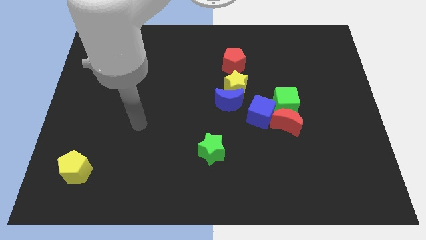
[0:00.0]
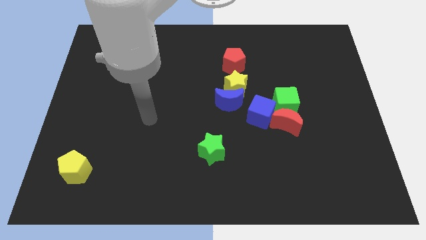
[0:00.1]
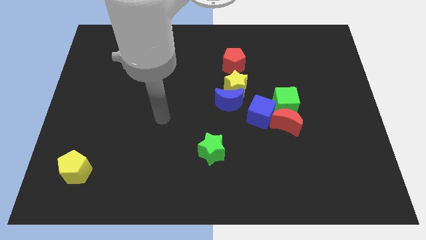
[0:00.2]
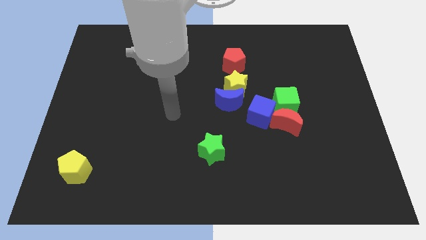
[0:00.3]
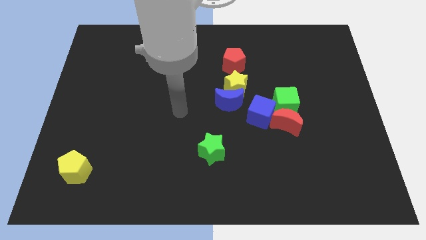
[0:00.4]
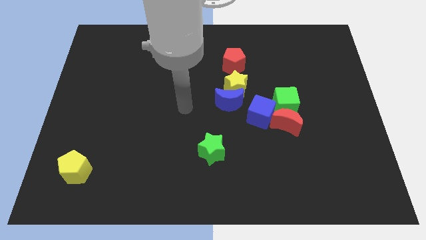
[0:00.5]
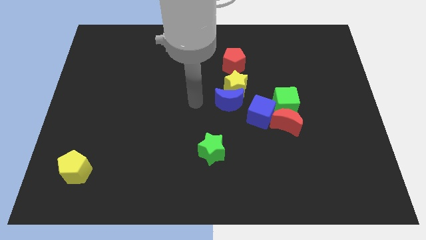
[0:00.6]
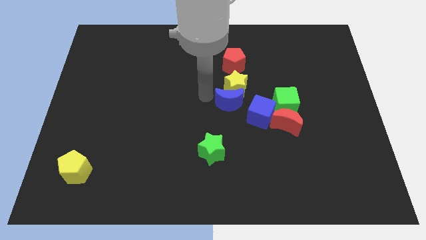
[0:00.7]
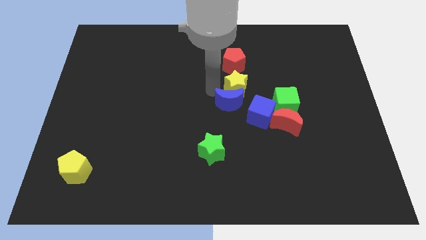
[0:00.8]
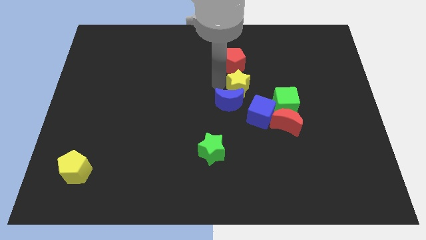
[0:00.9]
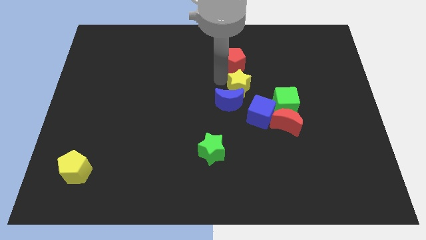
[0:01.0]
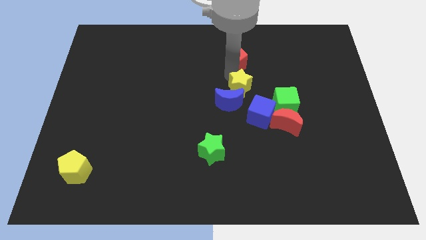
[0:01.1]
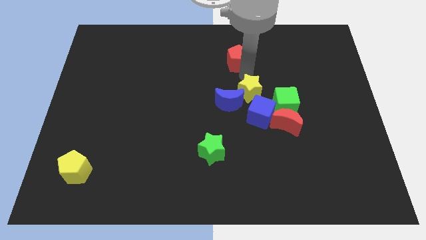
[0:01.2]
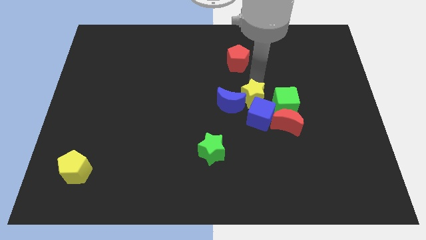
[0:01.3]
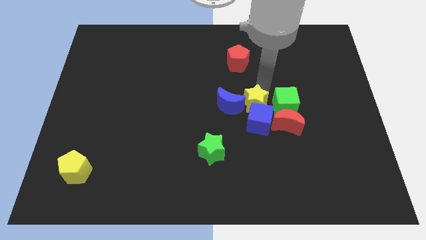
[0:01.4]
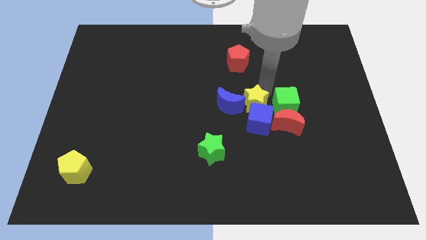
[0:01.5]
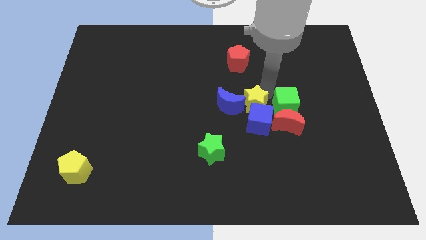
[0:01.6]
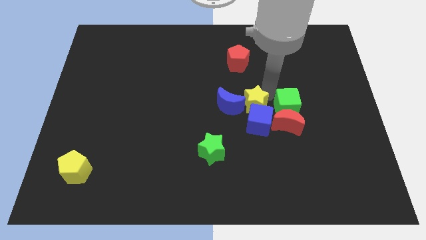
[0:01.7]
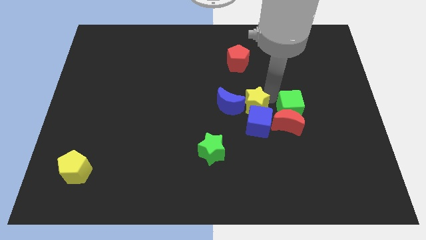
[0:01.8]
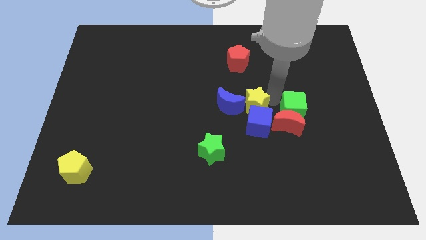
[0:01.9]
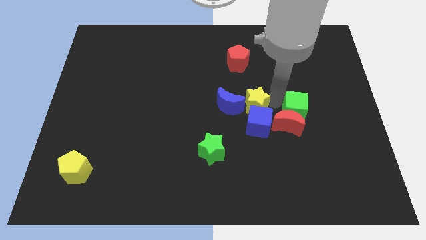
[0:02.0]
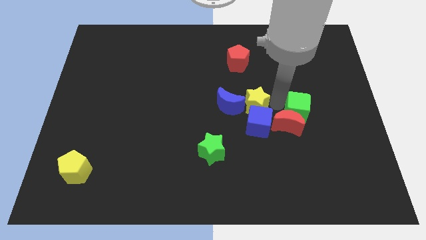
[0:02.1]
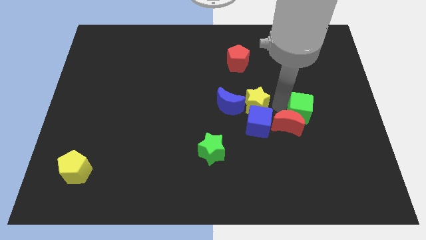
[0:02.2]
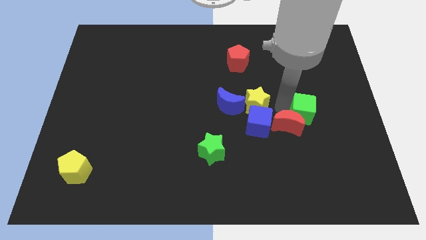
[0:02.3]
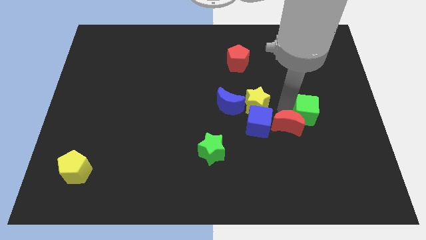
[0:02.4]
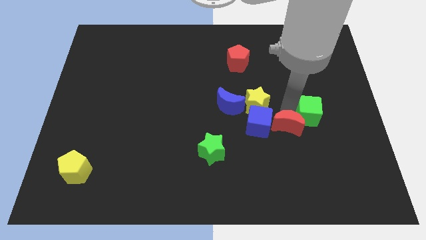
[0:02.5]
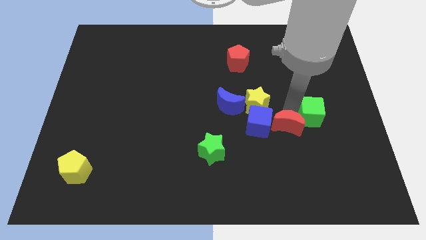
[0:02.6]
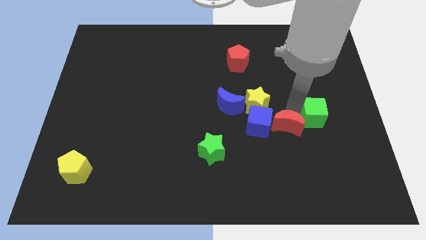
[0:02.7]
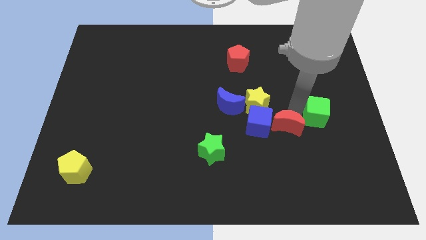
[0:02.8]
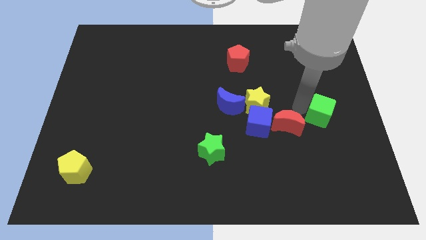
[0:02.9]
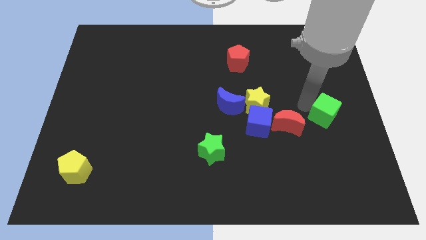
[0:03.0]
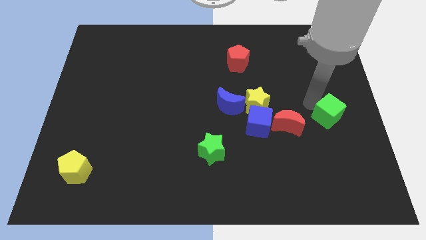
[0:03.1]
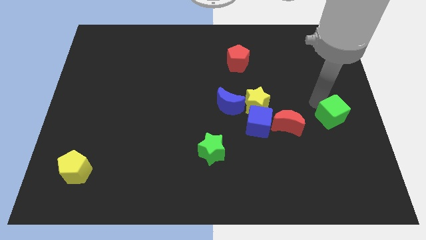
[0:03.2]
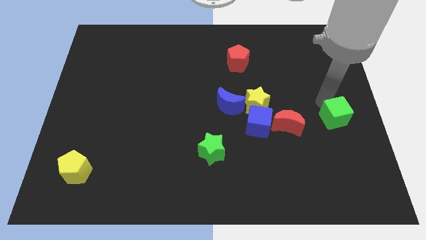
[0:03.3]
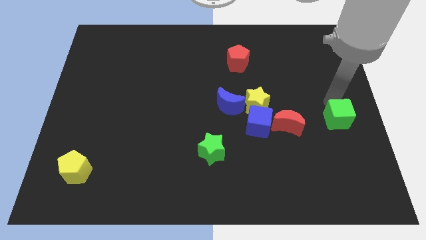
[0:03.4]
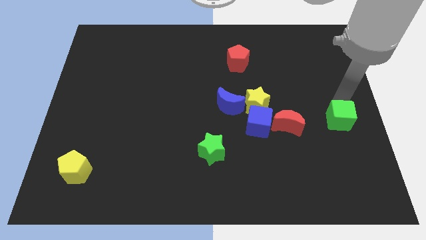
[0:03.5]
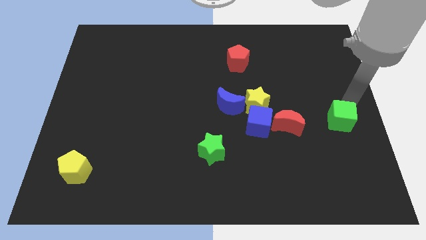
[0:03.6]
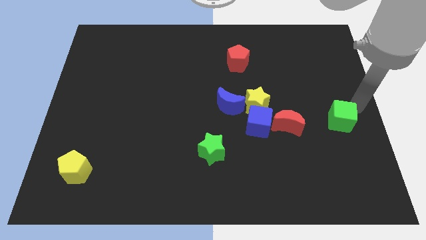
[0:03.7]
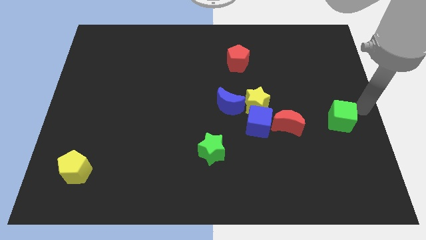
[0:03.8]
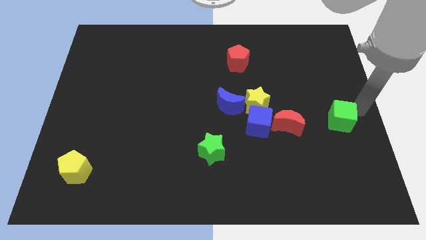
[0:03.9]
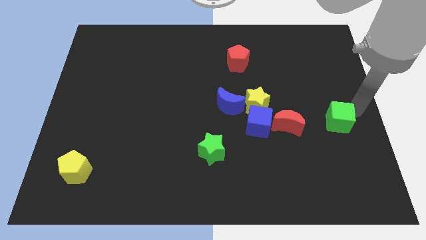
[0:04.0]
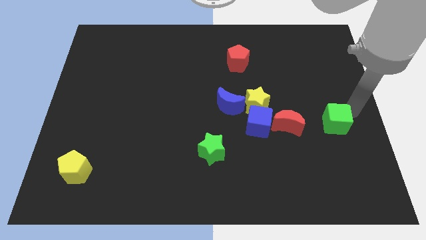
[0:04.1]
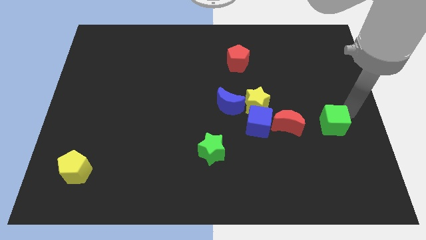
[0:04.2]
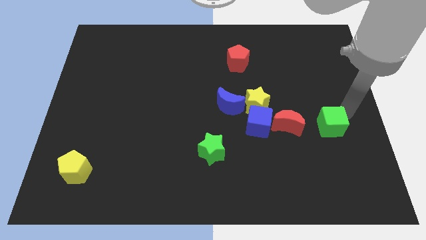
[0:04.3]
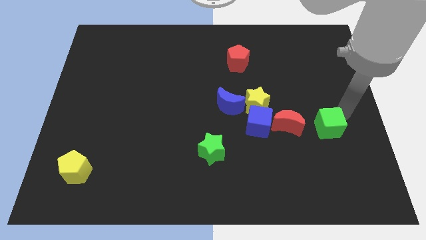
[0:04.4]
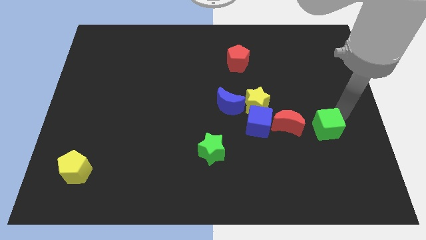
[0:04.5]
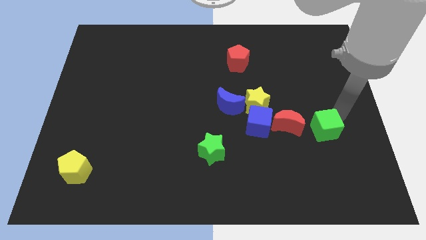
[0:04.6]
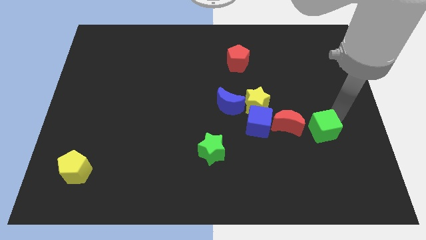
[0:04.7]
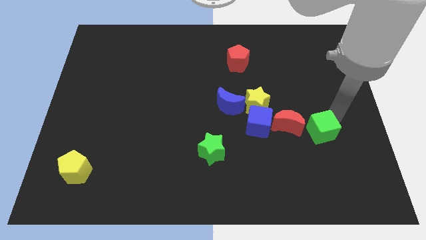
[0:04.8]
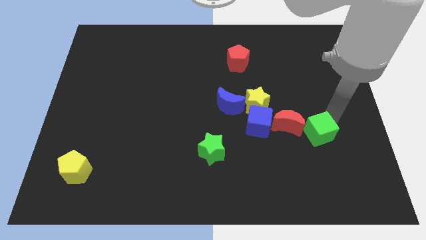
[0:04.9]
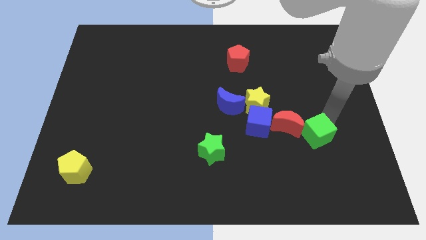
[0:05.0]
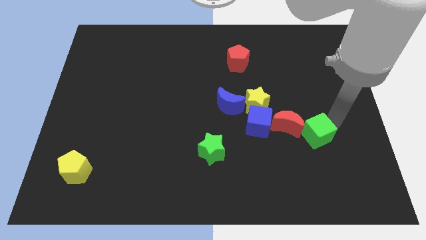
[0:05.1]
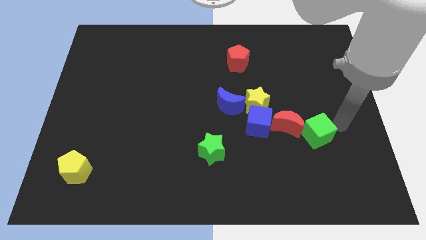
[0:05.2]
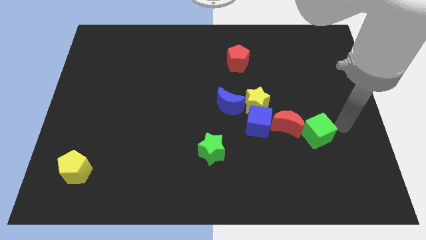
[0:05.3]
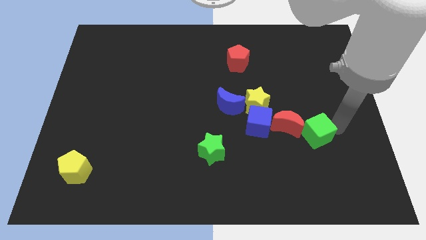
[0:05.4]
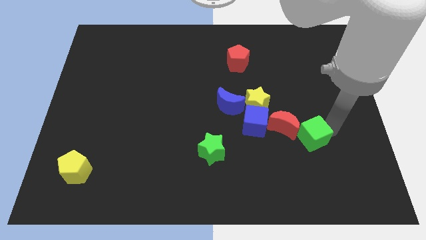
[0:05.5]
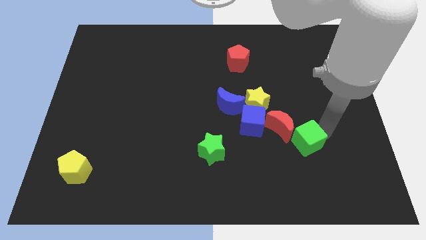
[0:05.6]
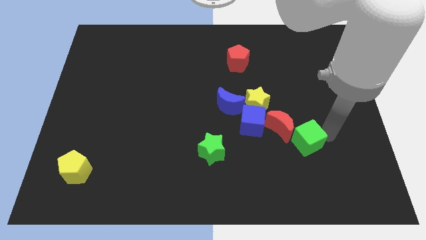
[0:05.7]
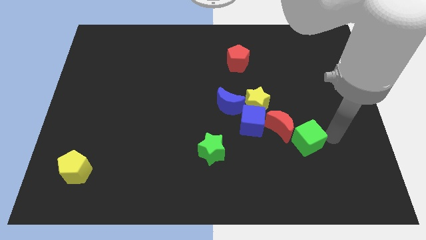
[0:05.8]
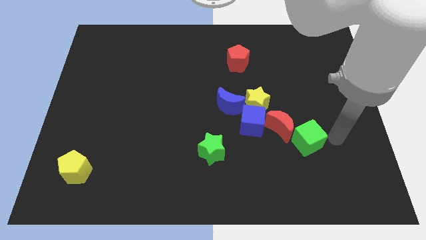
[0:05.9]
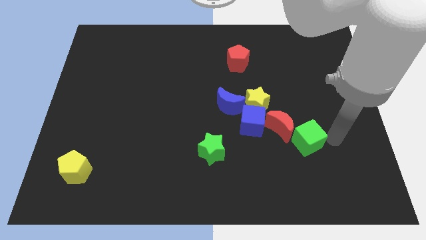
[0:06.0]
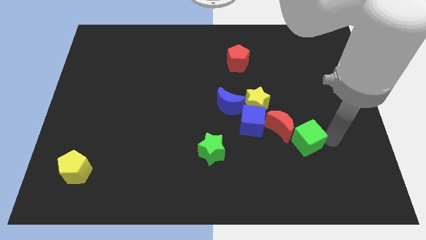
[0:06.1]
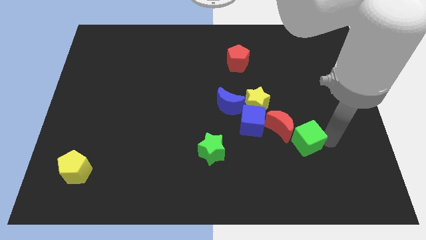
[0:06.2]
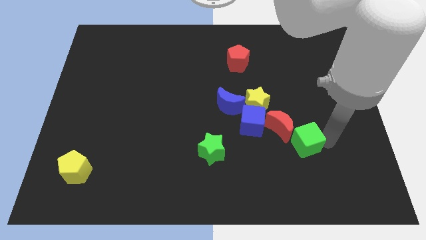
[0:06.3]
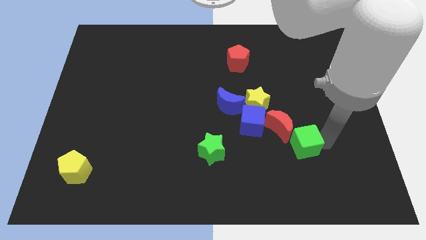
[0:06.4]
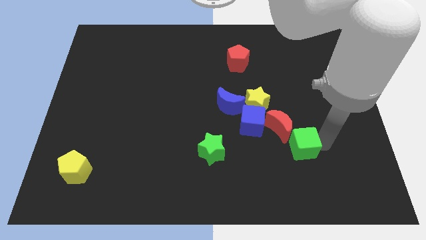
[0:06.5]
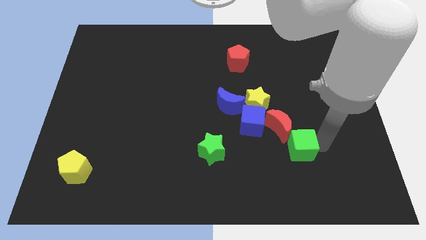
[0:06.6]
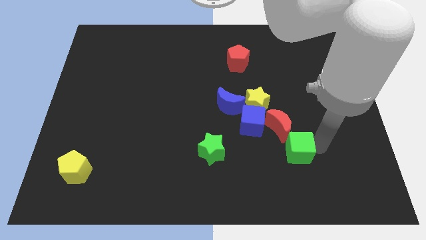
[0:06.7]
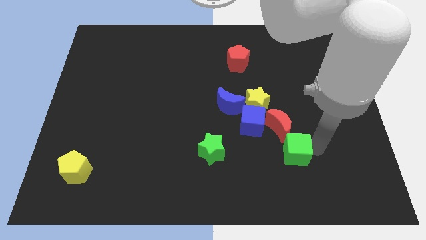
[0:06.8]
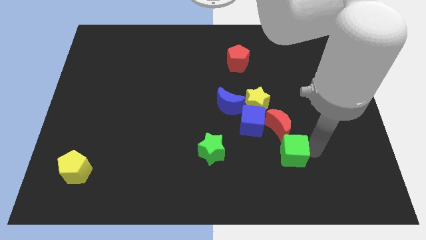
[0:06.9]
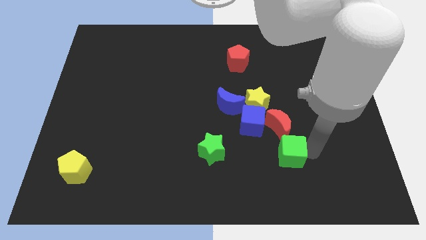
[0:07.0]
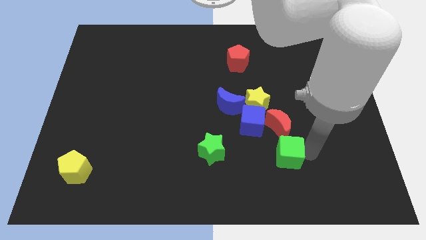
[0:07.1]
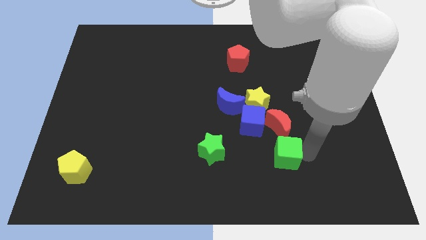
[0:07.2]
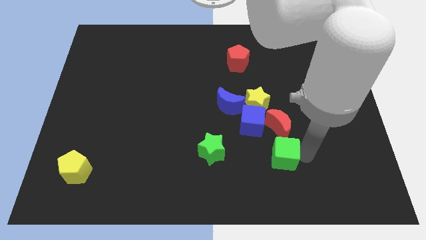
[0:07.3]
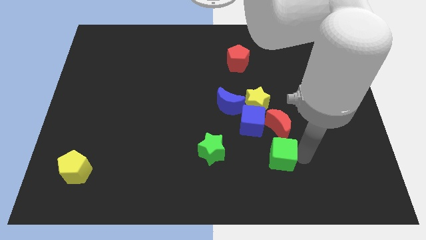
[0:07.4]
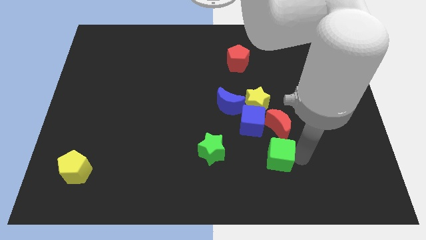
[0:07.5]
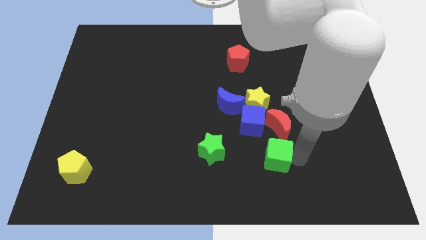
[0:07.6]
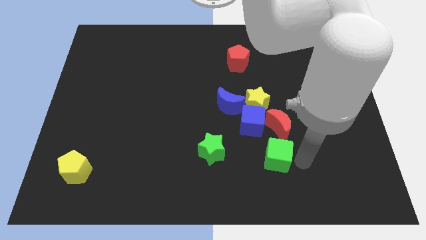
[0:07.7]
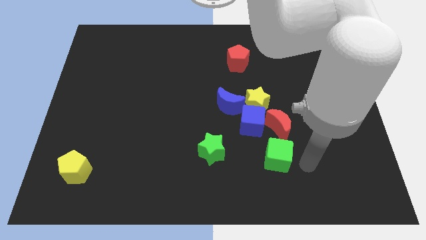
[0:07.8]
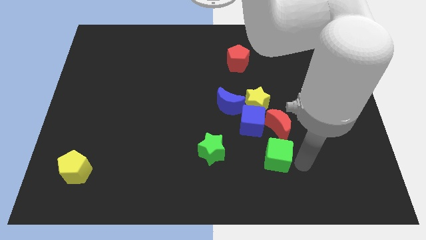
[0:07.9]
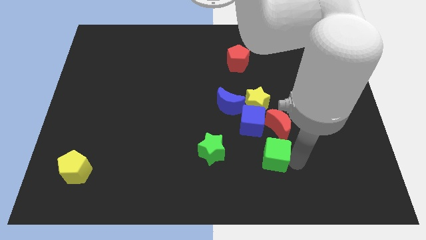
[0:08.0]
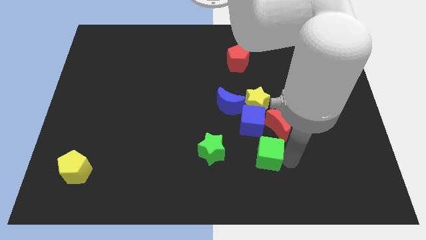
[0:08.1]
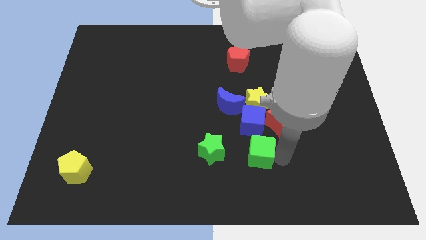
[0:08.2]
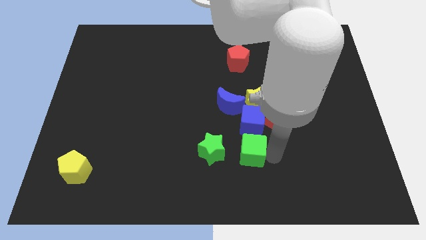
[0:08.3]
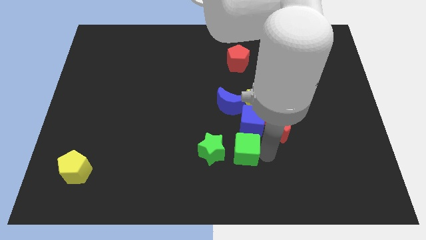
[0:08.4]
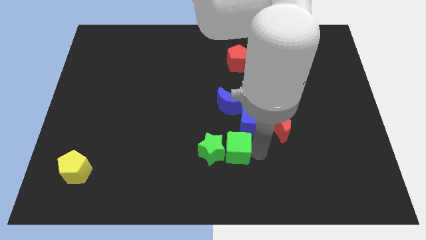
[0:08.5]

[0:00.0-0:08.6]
slide the green cube towards the green star
